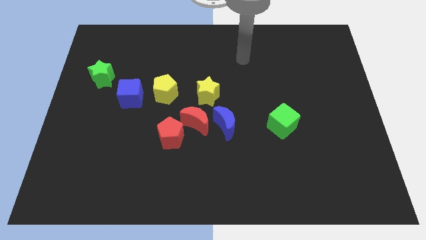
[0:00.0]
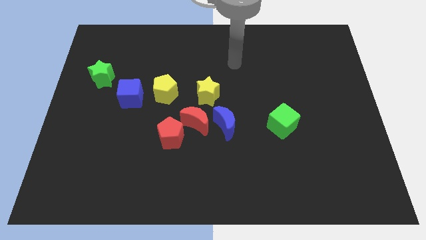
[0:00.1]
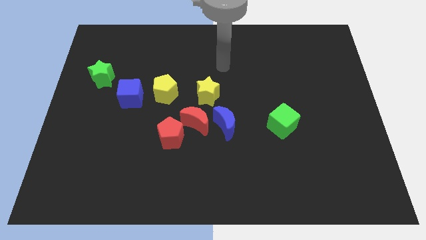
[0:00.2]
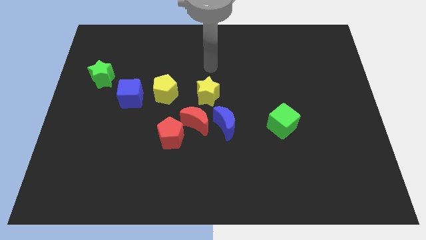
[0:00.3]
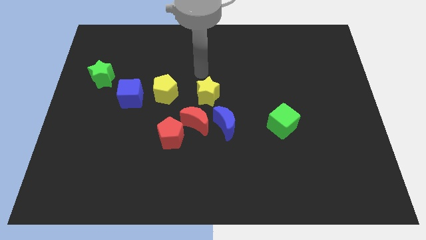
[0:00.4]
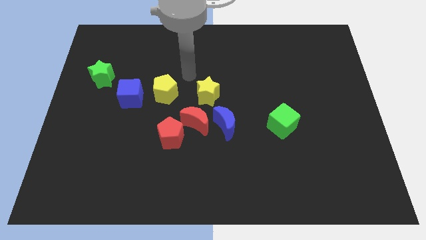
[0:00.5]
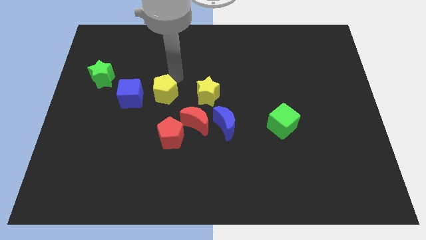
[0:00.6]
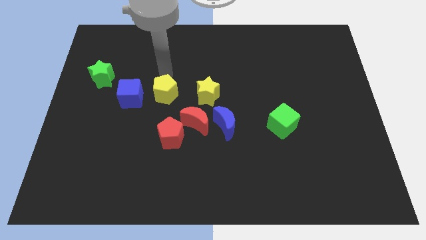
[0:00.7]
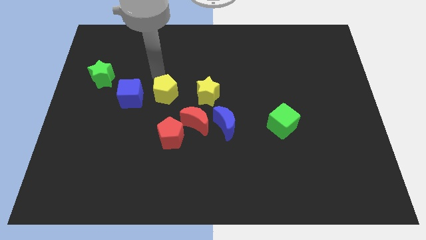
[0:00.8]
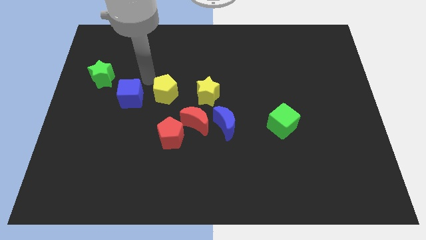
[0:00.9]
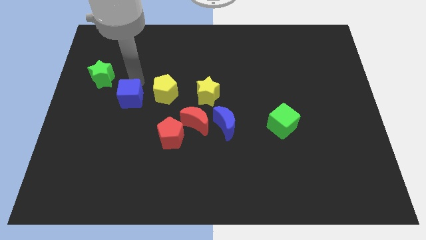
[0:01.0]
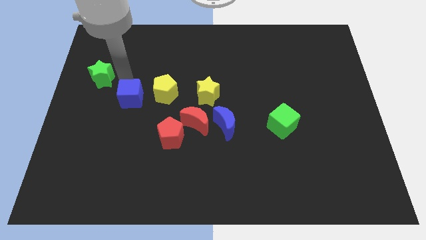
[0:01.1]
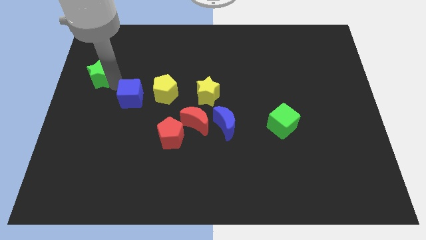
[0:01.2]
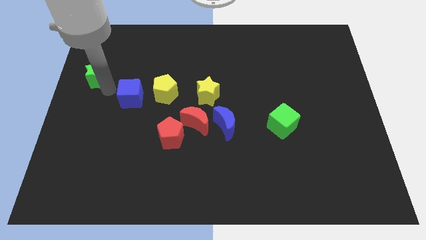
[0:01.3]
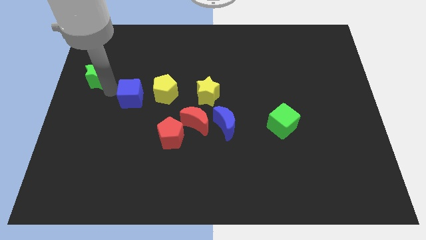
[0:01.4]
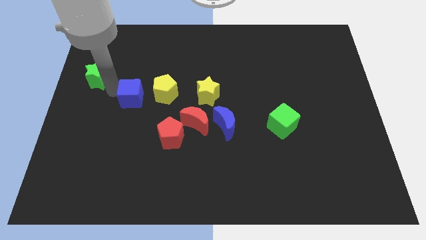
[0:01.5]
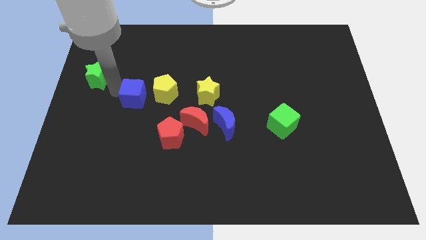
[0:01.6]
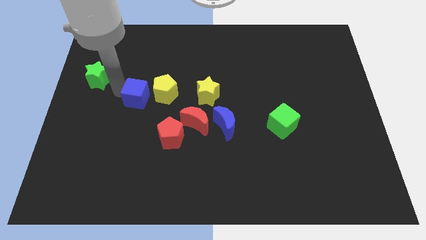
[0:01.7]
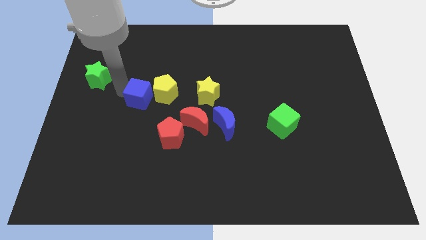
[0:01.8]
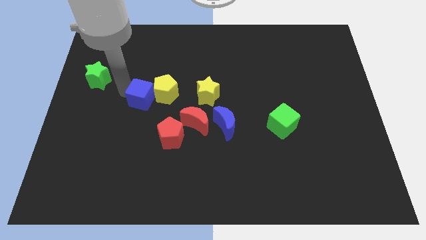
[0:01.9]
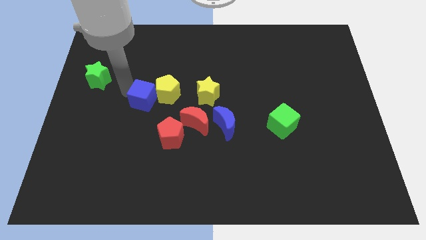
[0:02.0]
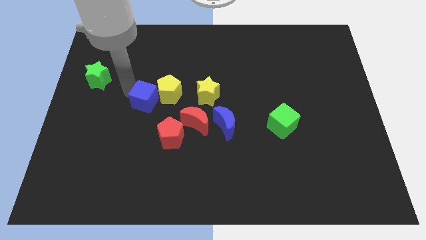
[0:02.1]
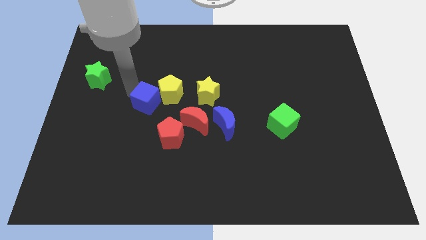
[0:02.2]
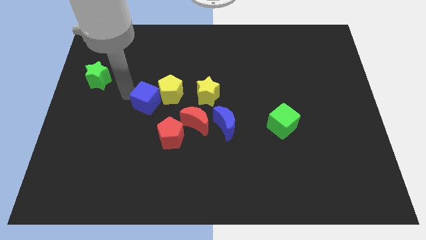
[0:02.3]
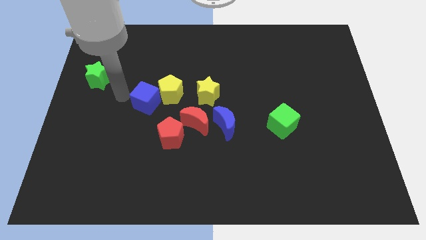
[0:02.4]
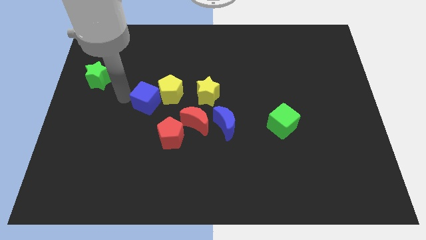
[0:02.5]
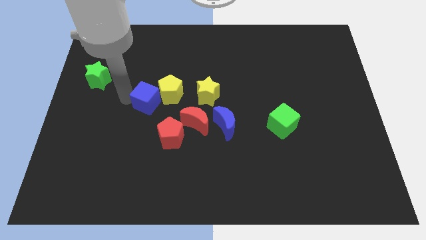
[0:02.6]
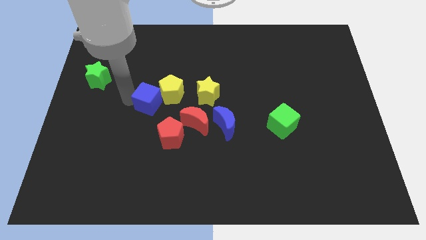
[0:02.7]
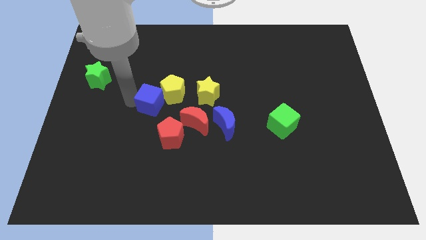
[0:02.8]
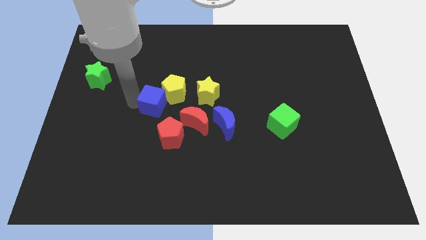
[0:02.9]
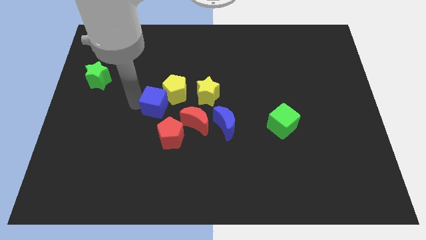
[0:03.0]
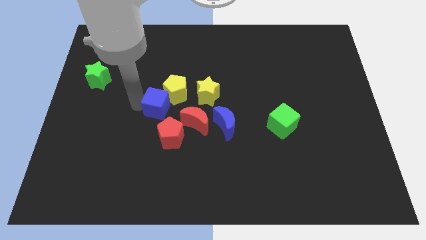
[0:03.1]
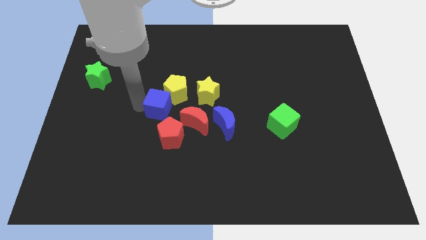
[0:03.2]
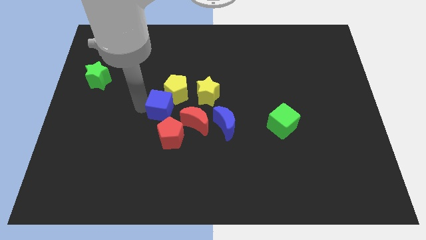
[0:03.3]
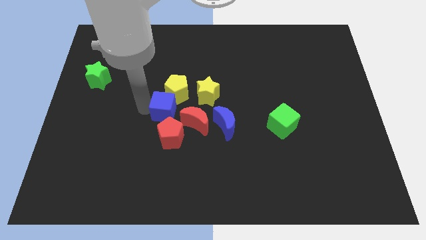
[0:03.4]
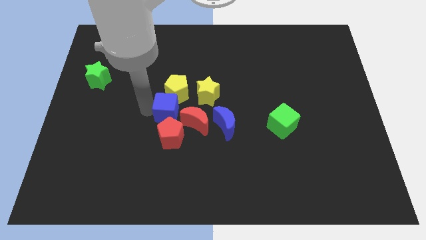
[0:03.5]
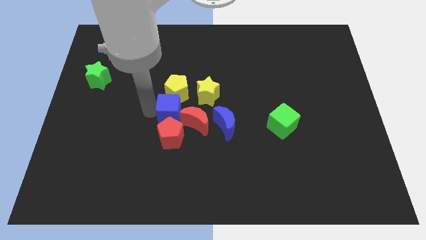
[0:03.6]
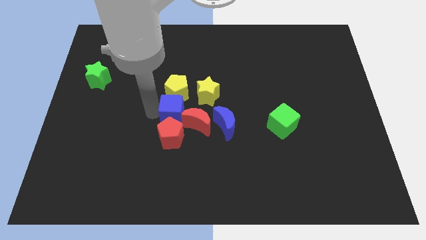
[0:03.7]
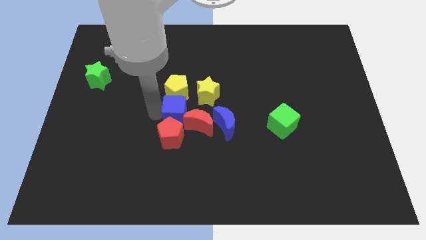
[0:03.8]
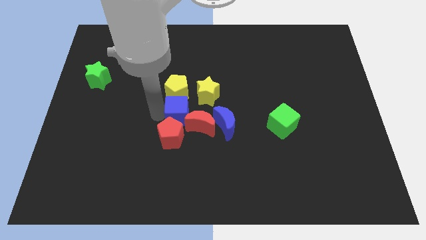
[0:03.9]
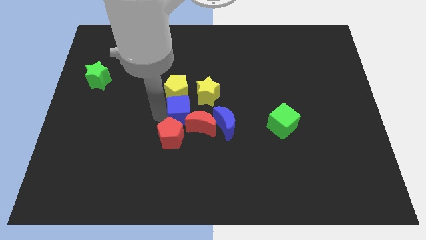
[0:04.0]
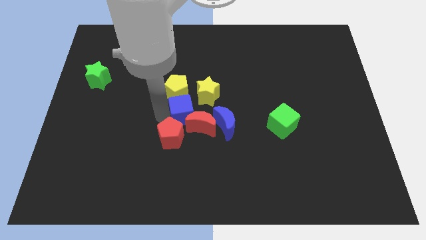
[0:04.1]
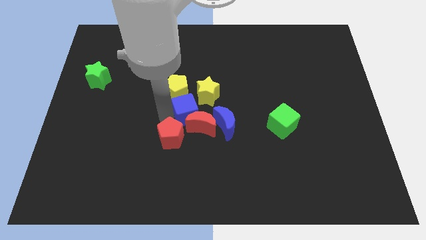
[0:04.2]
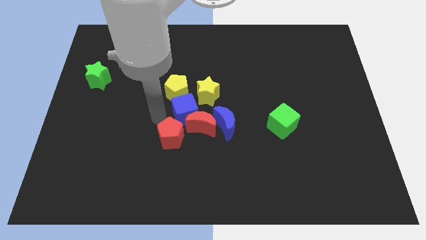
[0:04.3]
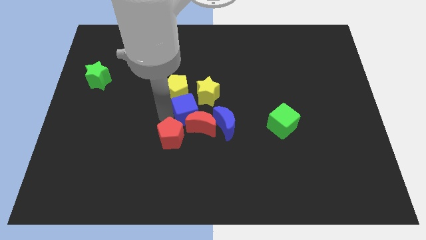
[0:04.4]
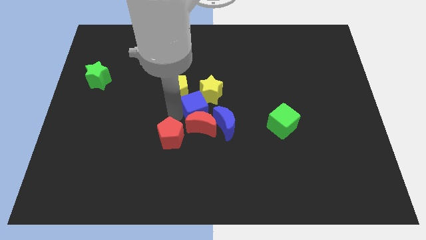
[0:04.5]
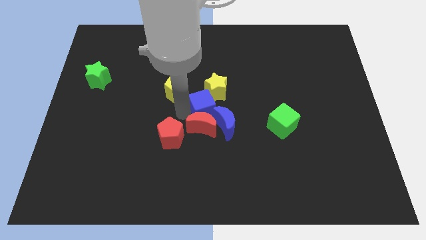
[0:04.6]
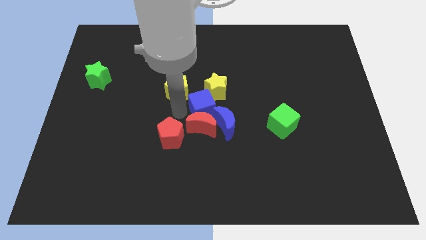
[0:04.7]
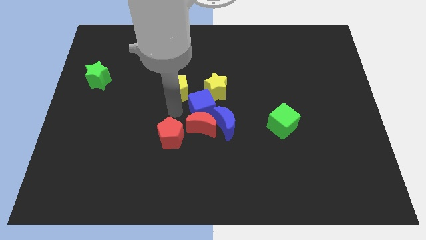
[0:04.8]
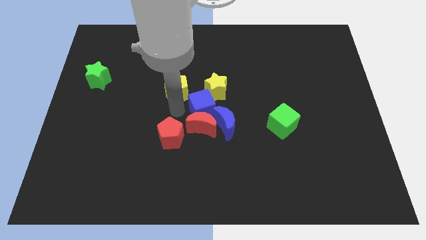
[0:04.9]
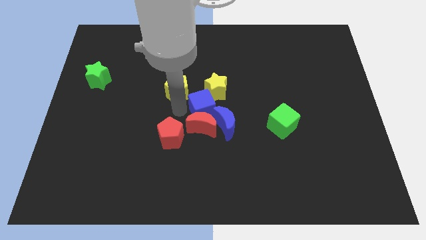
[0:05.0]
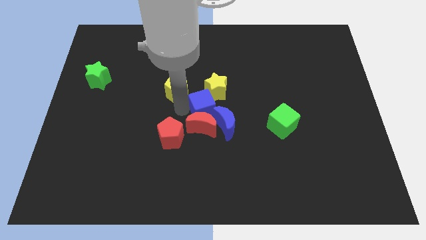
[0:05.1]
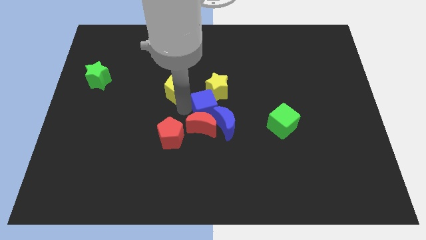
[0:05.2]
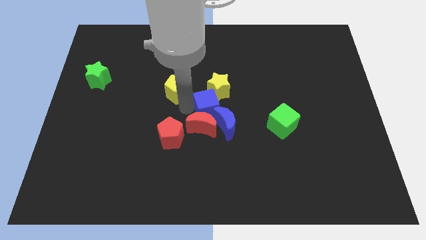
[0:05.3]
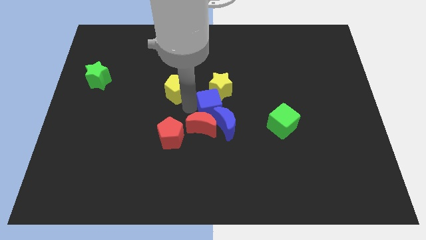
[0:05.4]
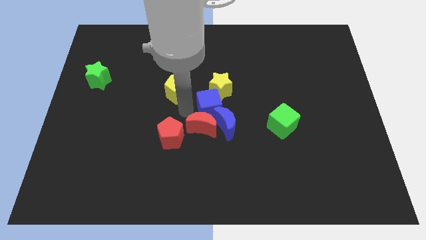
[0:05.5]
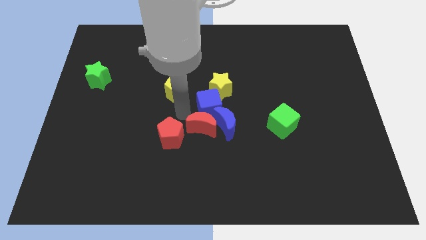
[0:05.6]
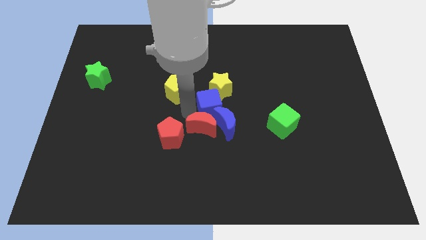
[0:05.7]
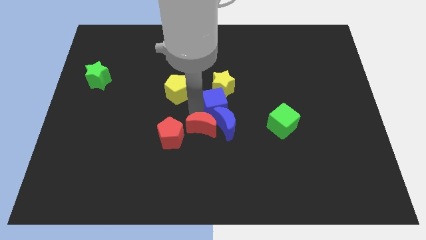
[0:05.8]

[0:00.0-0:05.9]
push the blue cube to the right
